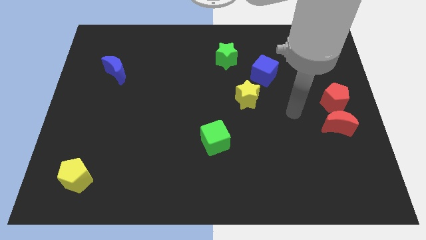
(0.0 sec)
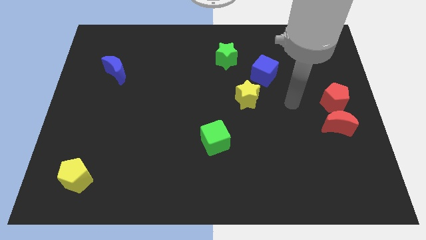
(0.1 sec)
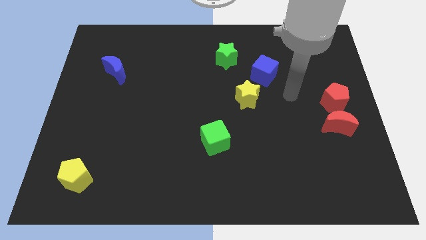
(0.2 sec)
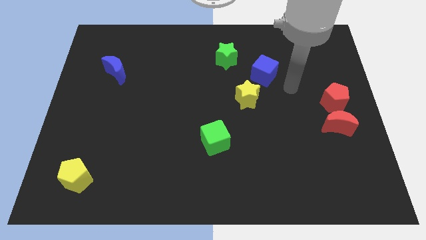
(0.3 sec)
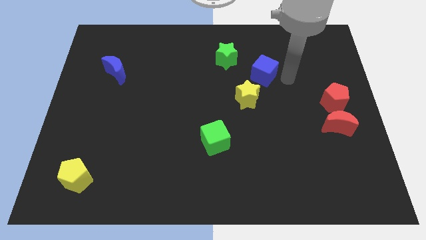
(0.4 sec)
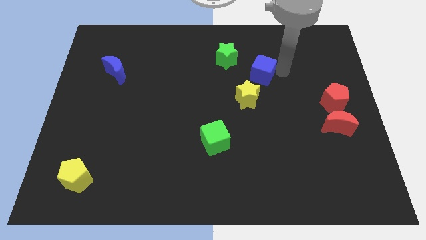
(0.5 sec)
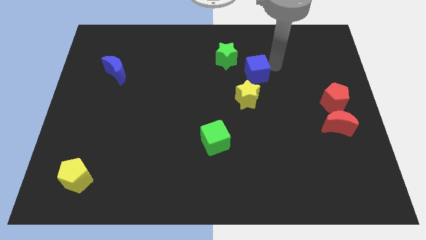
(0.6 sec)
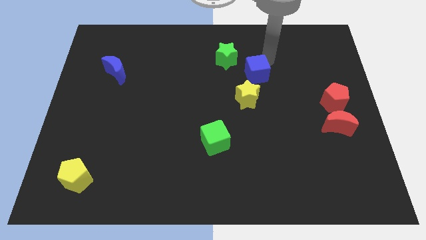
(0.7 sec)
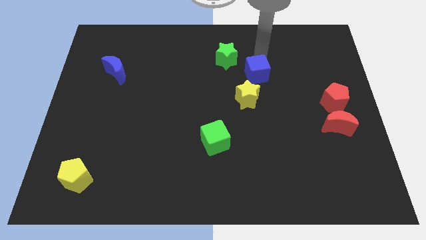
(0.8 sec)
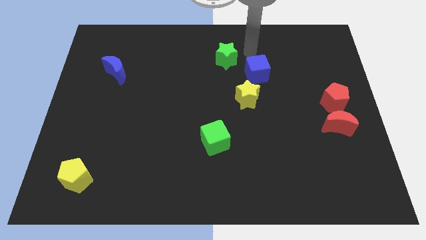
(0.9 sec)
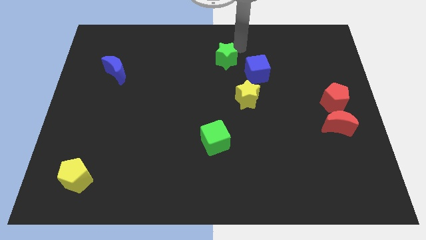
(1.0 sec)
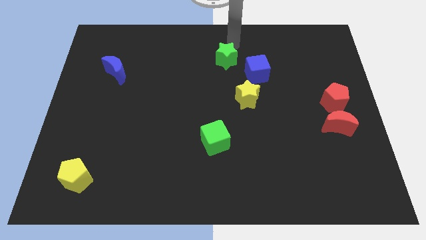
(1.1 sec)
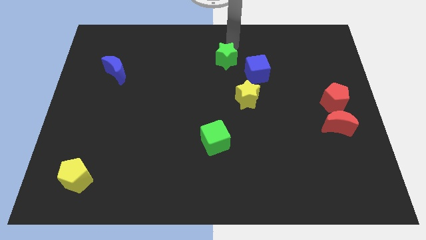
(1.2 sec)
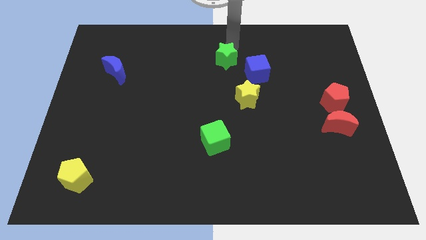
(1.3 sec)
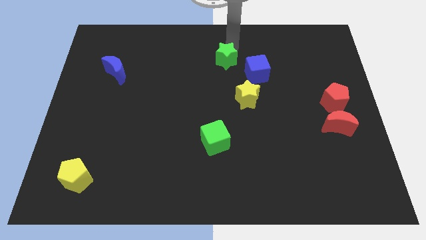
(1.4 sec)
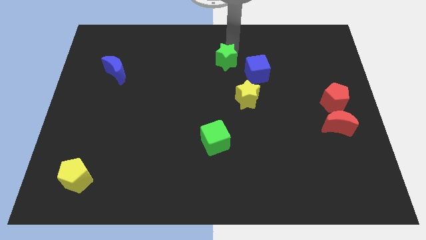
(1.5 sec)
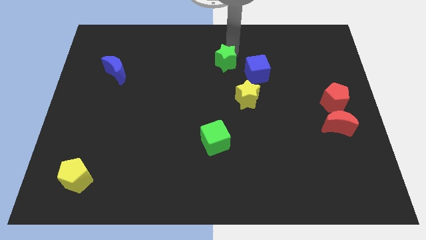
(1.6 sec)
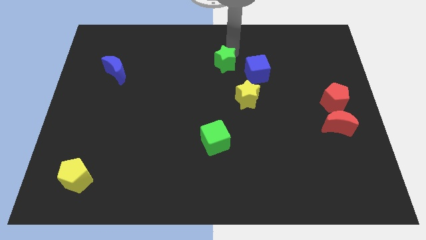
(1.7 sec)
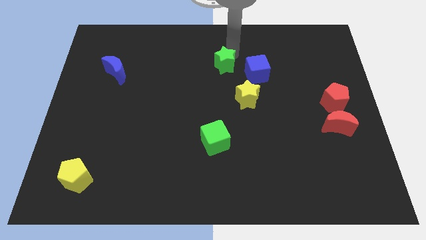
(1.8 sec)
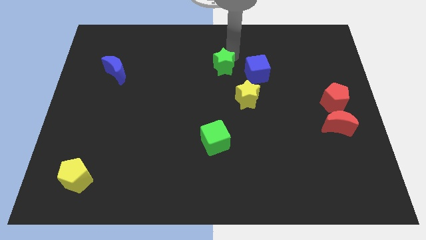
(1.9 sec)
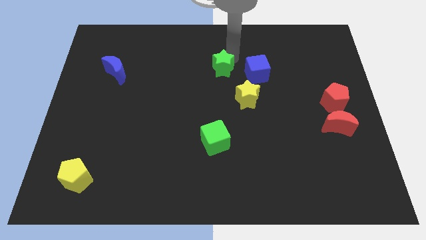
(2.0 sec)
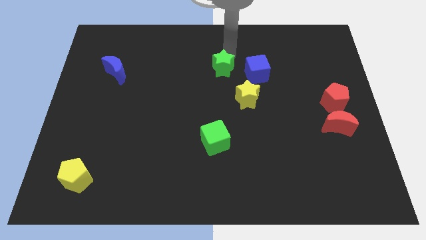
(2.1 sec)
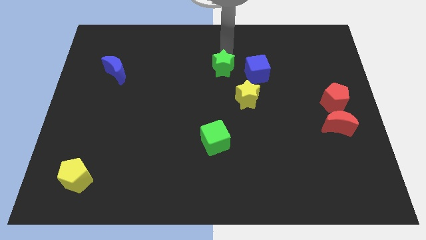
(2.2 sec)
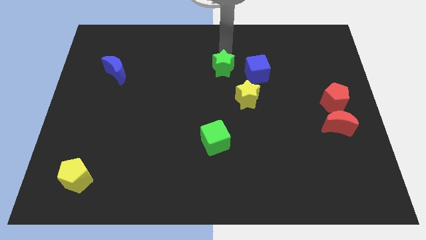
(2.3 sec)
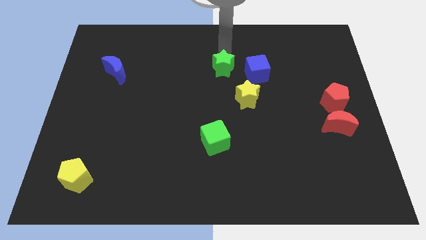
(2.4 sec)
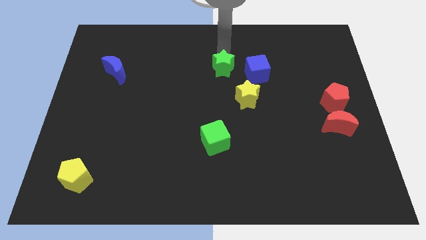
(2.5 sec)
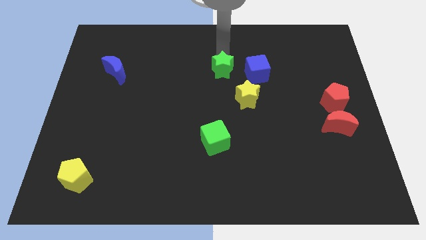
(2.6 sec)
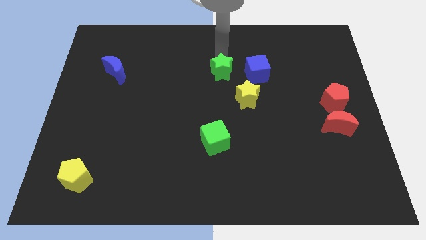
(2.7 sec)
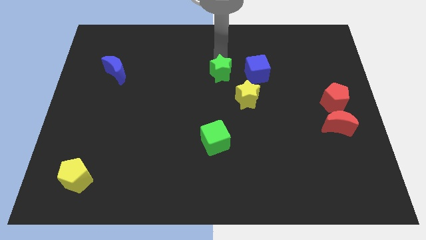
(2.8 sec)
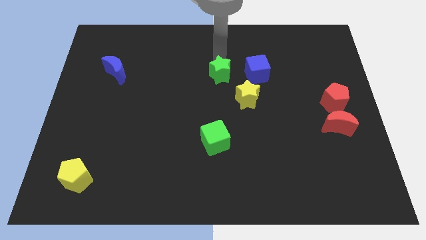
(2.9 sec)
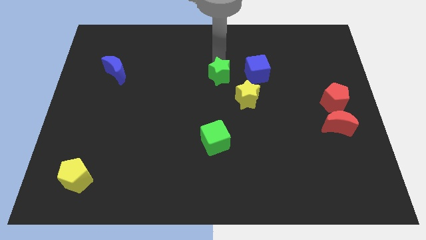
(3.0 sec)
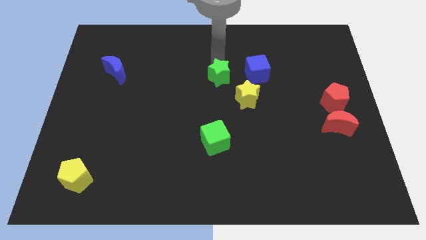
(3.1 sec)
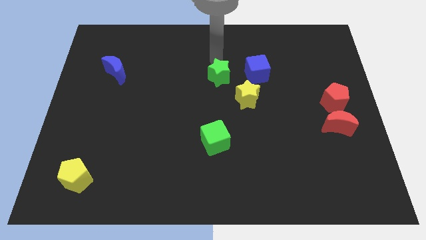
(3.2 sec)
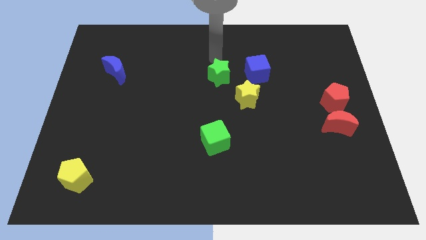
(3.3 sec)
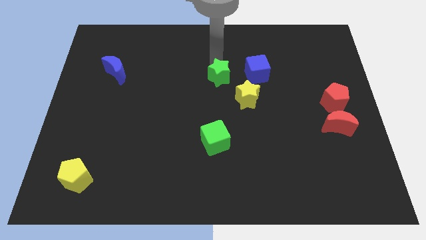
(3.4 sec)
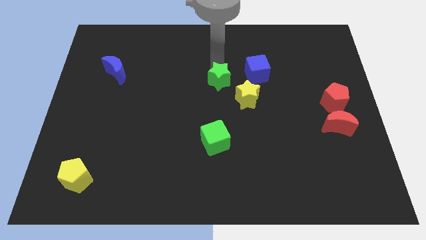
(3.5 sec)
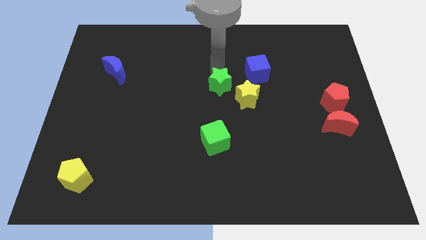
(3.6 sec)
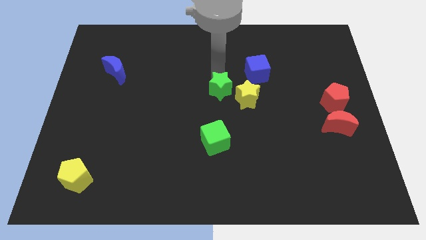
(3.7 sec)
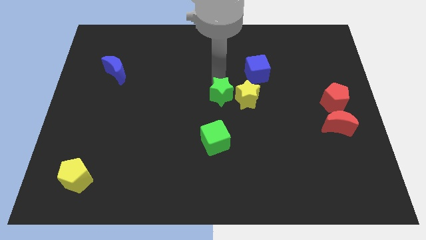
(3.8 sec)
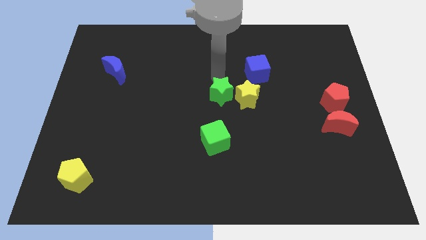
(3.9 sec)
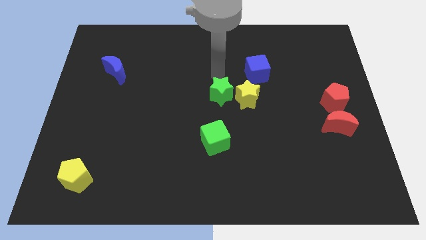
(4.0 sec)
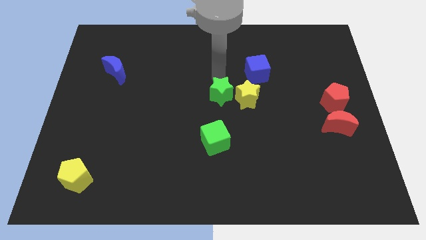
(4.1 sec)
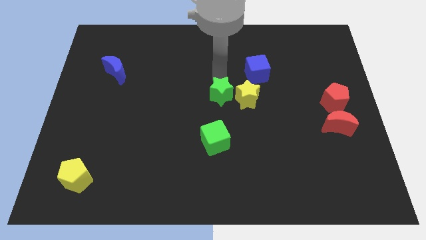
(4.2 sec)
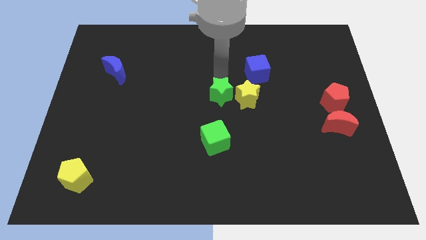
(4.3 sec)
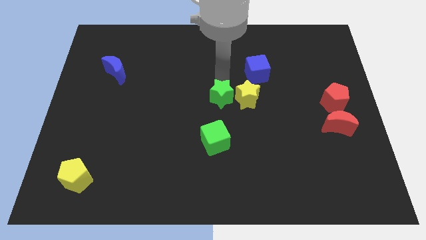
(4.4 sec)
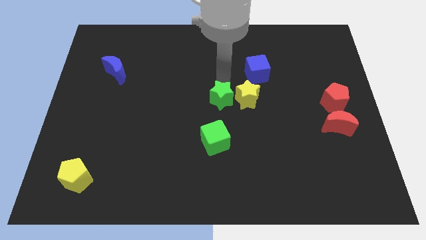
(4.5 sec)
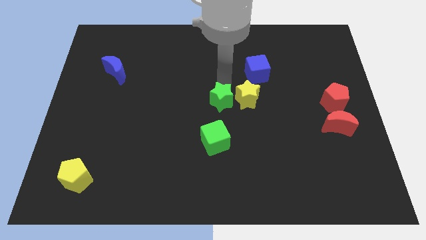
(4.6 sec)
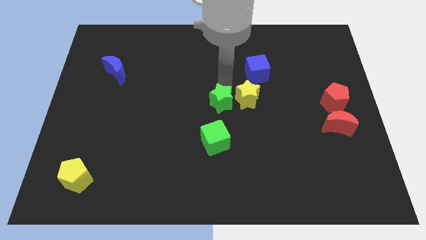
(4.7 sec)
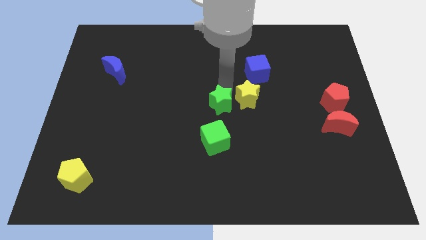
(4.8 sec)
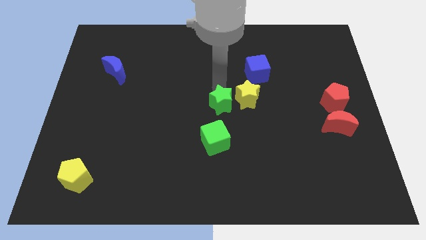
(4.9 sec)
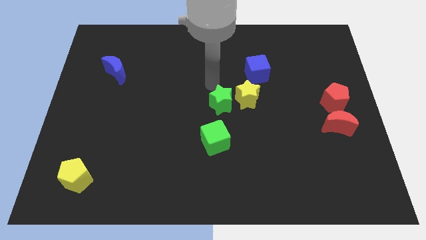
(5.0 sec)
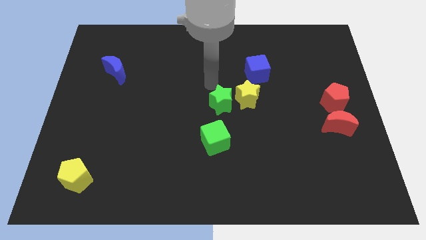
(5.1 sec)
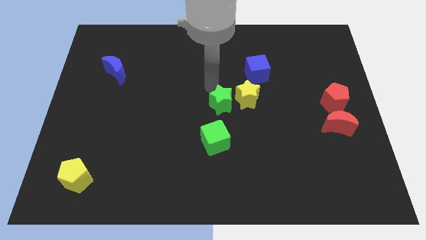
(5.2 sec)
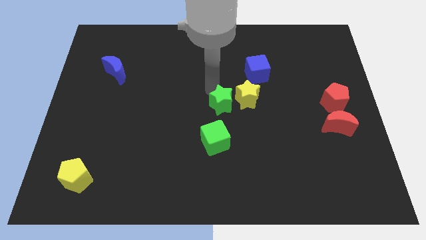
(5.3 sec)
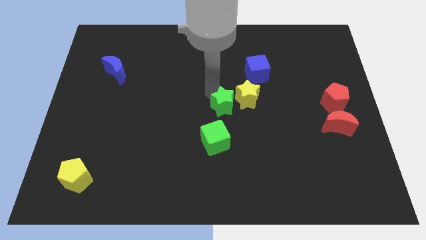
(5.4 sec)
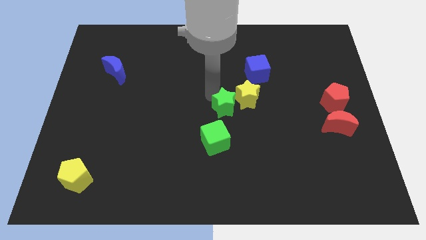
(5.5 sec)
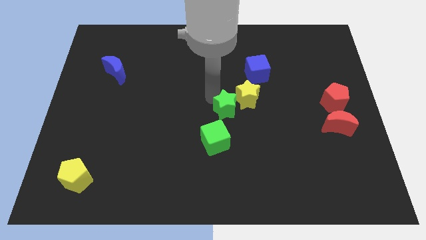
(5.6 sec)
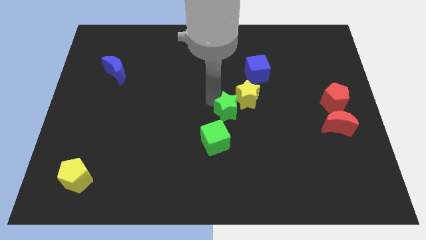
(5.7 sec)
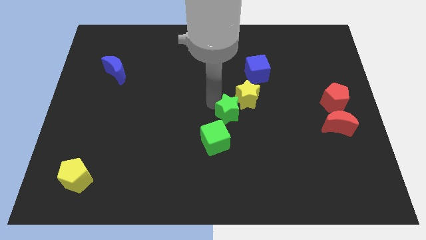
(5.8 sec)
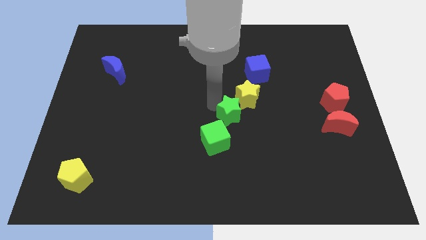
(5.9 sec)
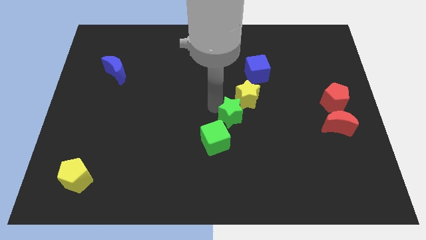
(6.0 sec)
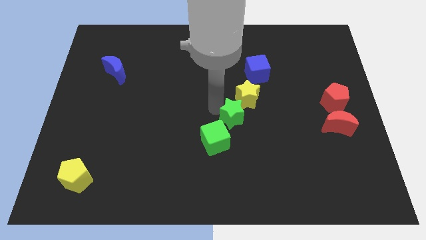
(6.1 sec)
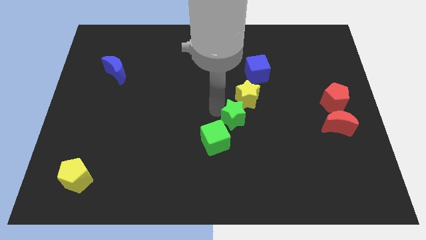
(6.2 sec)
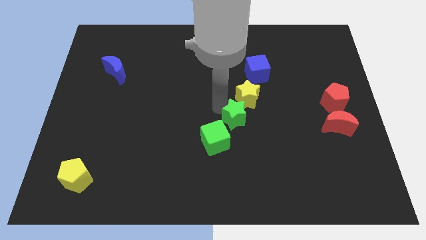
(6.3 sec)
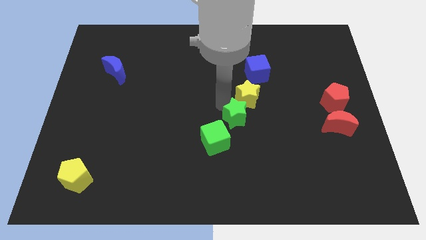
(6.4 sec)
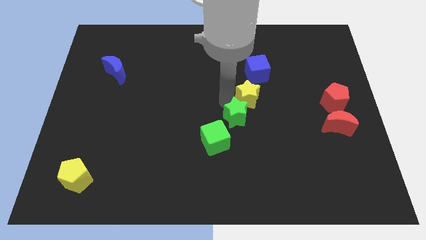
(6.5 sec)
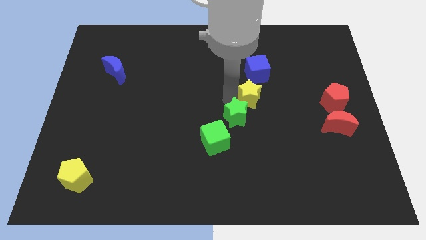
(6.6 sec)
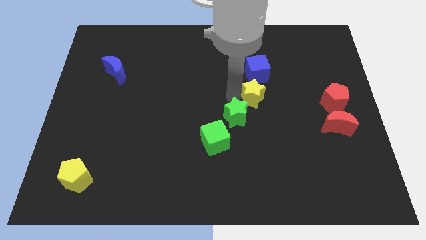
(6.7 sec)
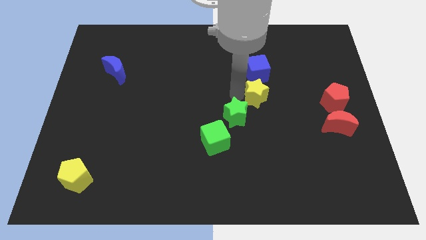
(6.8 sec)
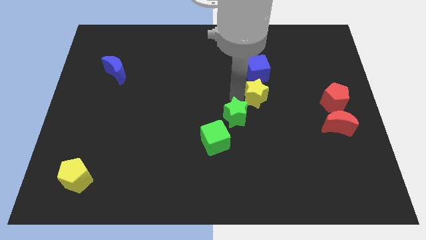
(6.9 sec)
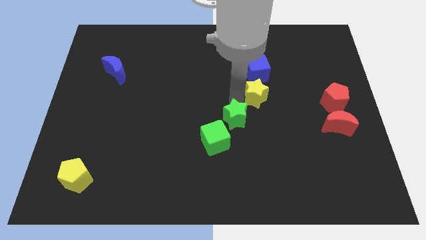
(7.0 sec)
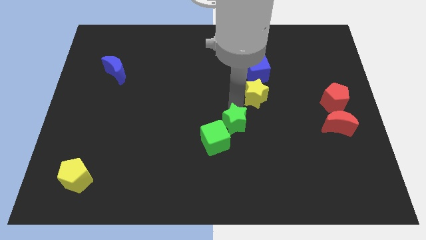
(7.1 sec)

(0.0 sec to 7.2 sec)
push the green star downwards

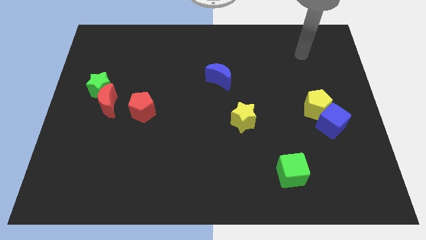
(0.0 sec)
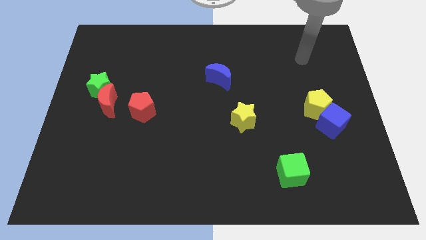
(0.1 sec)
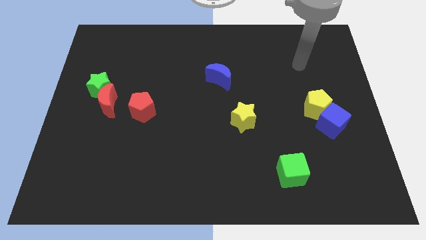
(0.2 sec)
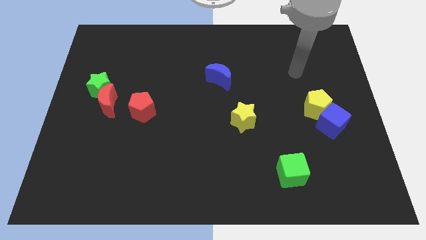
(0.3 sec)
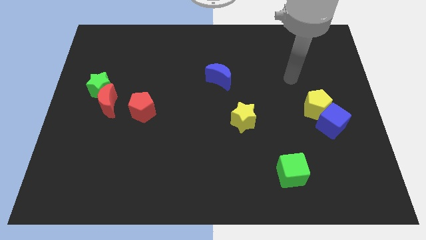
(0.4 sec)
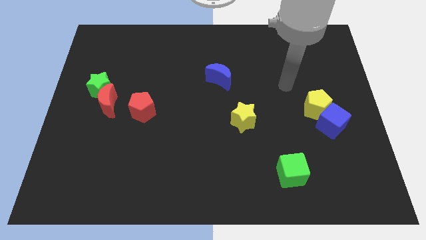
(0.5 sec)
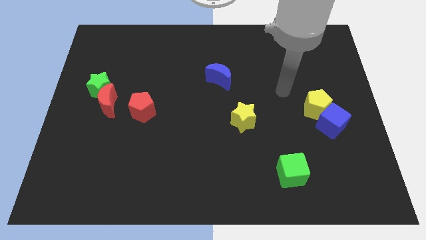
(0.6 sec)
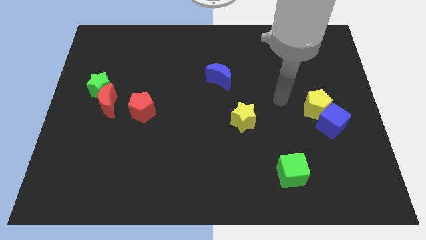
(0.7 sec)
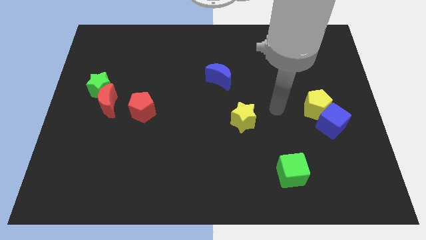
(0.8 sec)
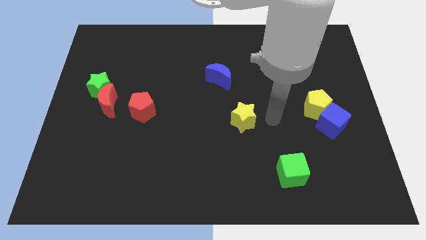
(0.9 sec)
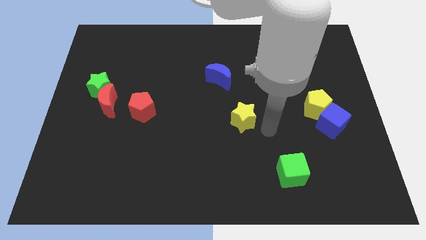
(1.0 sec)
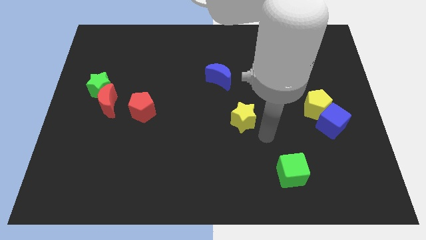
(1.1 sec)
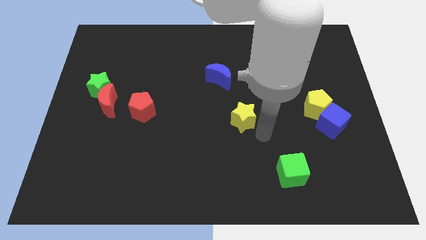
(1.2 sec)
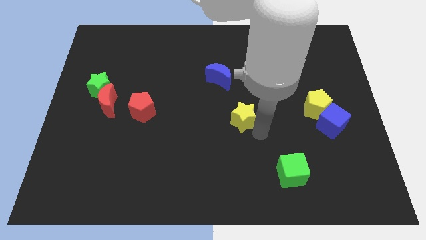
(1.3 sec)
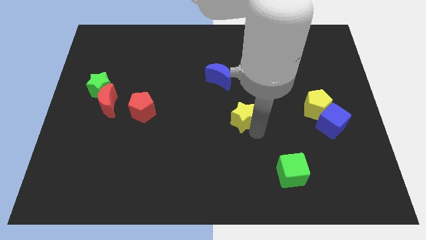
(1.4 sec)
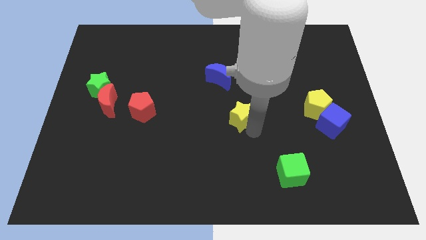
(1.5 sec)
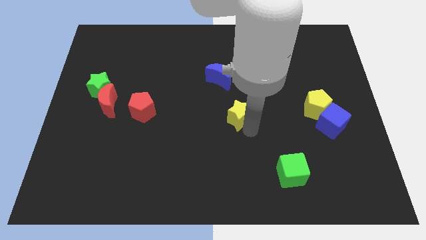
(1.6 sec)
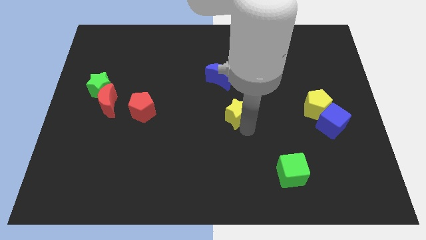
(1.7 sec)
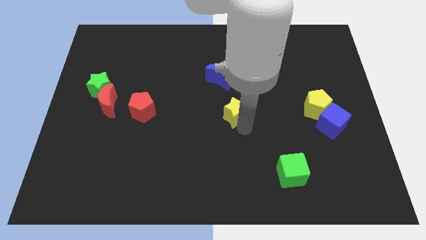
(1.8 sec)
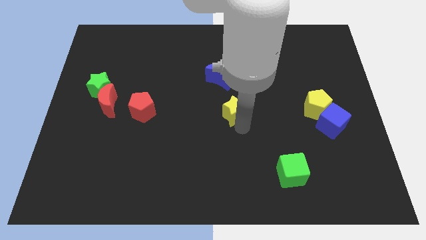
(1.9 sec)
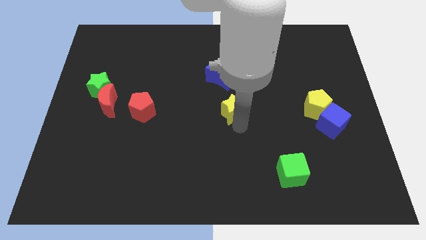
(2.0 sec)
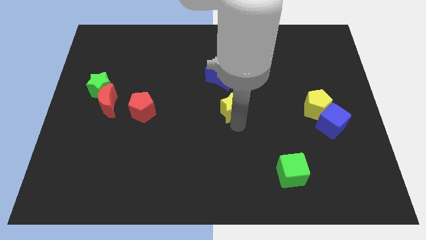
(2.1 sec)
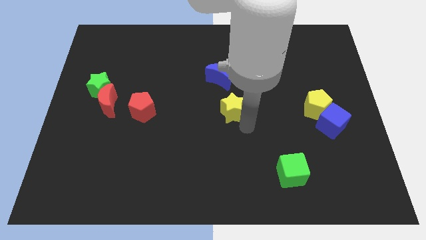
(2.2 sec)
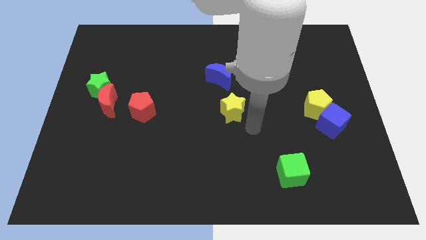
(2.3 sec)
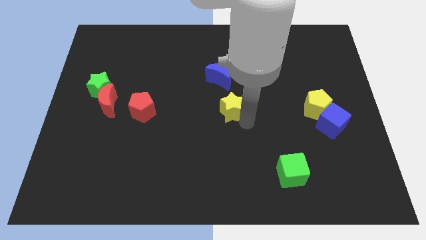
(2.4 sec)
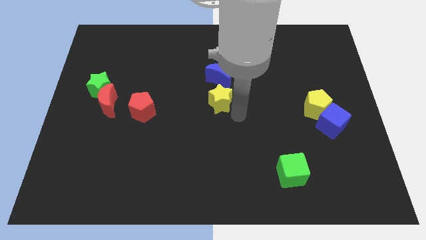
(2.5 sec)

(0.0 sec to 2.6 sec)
slightly push the yellow star up and left
